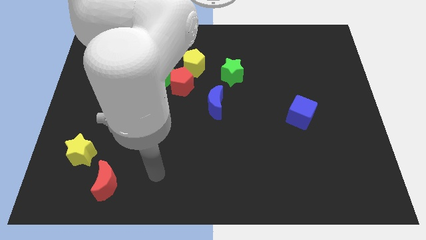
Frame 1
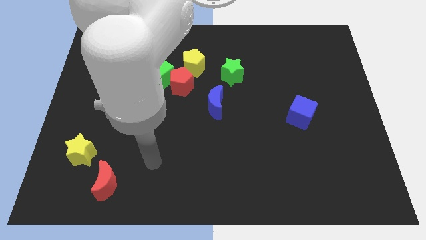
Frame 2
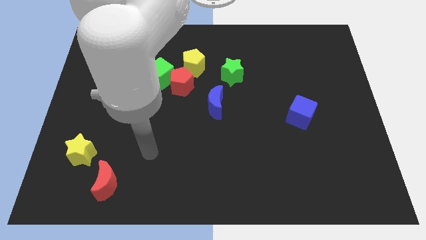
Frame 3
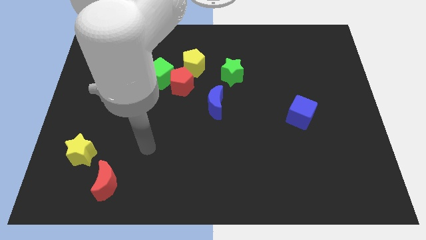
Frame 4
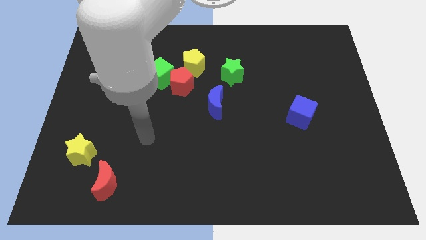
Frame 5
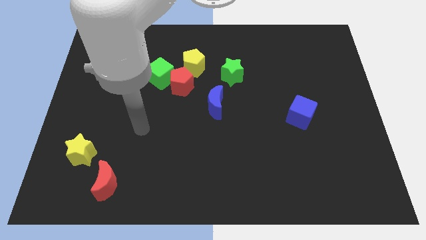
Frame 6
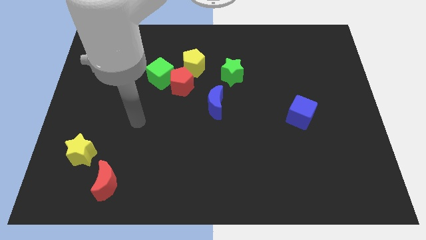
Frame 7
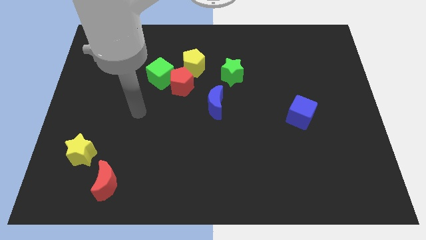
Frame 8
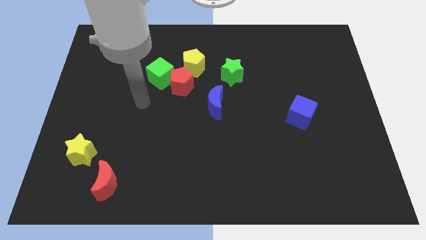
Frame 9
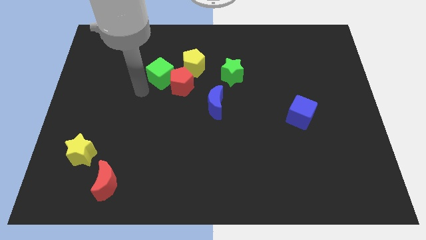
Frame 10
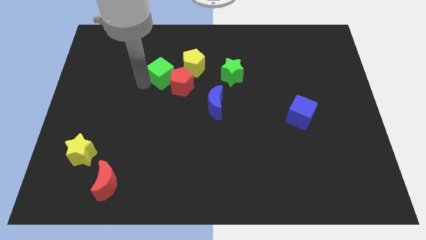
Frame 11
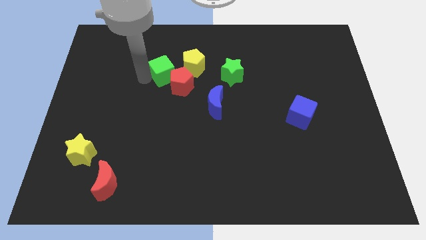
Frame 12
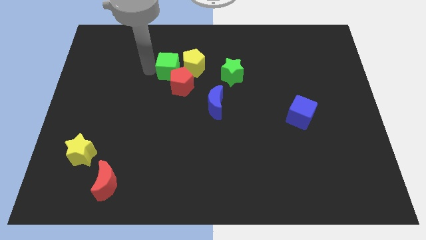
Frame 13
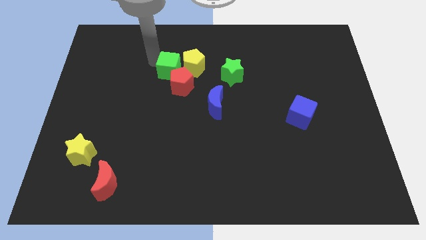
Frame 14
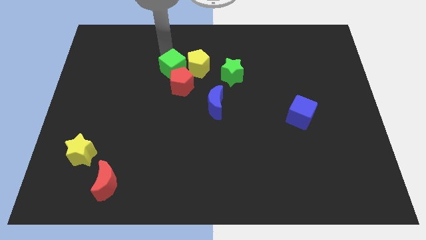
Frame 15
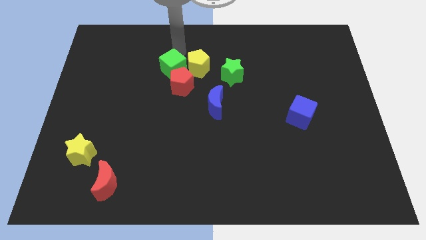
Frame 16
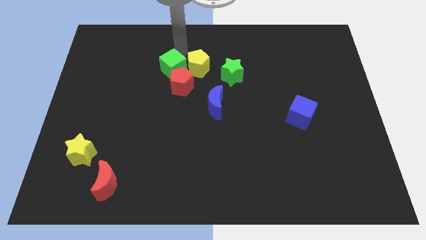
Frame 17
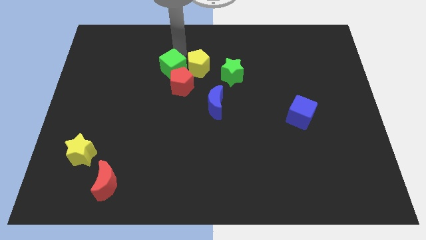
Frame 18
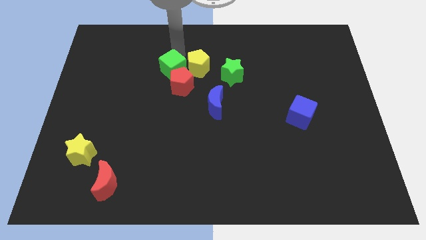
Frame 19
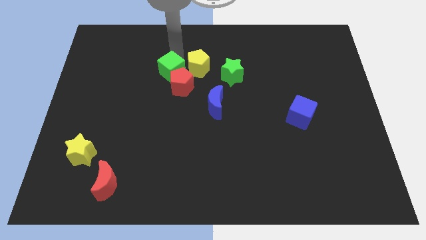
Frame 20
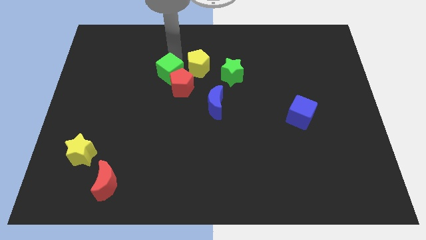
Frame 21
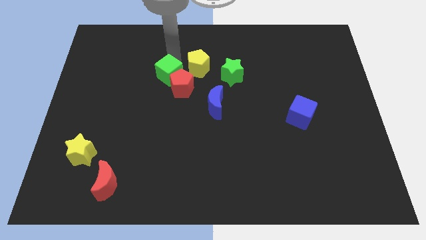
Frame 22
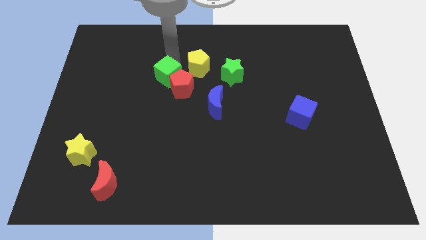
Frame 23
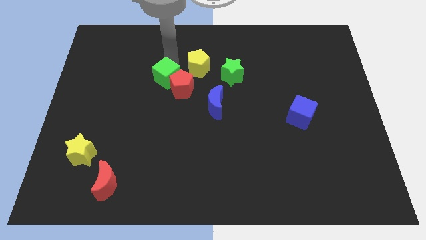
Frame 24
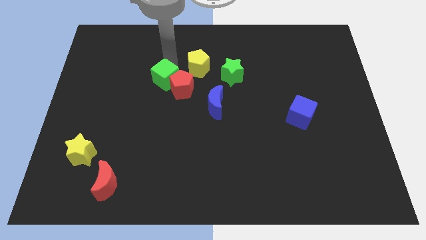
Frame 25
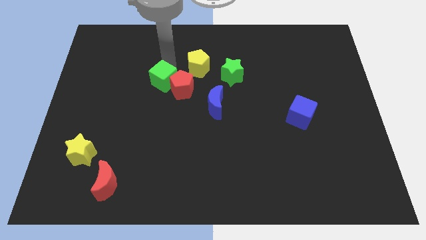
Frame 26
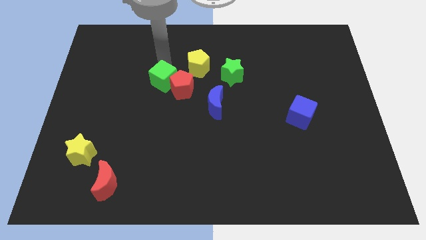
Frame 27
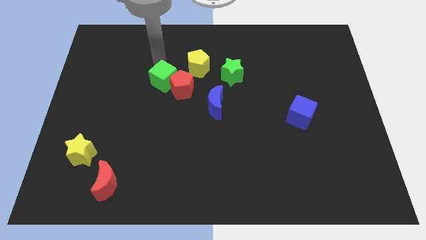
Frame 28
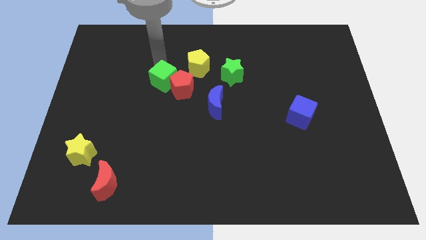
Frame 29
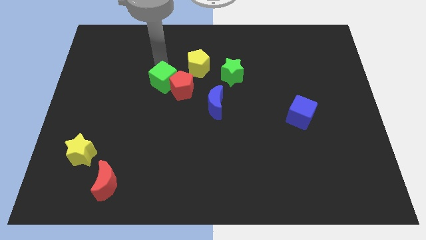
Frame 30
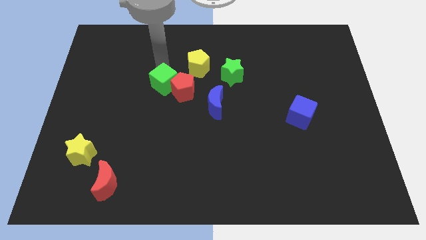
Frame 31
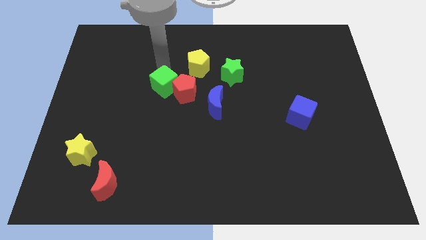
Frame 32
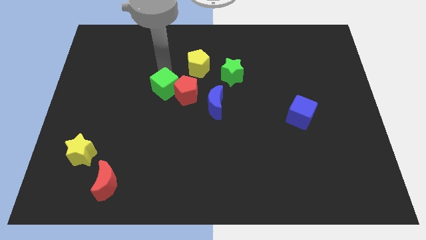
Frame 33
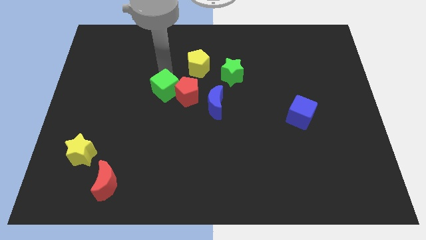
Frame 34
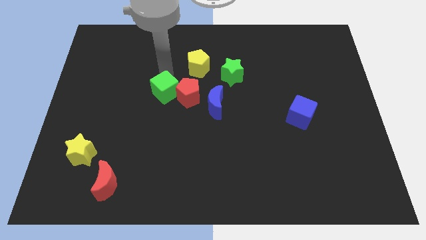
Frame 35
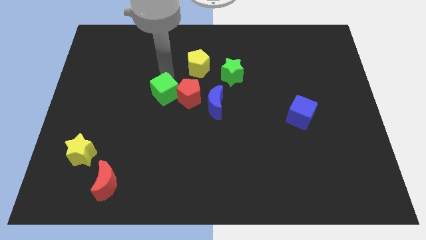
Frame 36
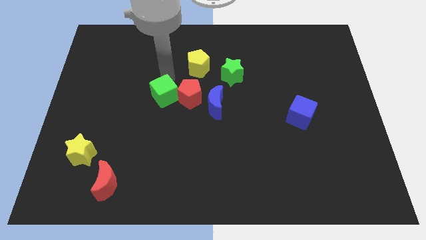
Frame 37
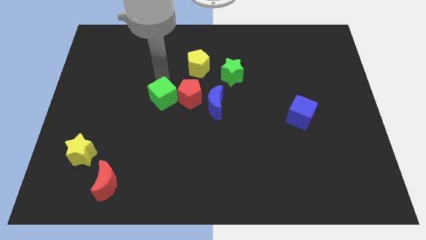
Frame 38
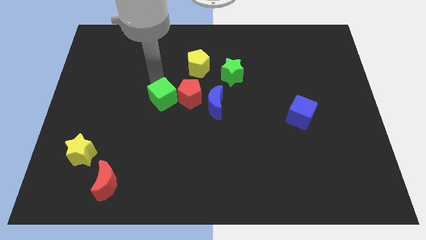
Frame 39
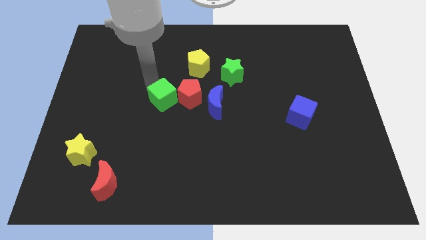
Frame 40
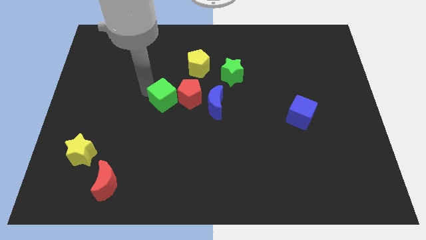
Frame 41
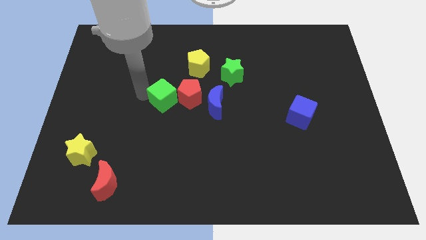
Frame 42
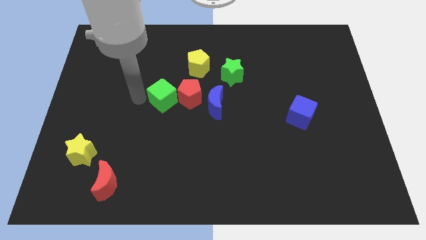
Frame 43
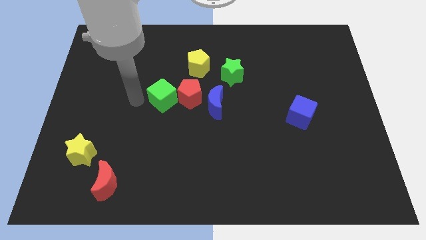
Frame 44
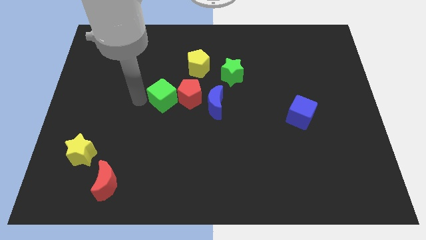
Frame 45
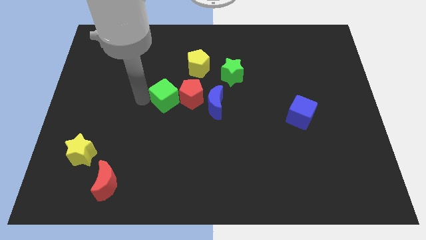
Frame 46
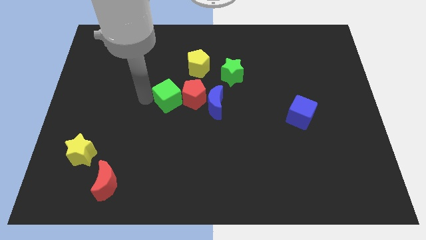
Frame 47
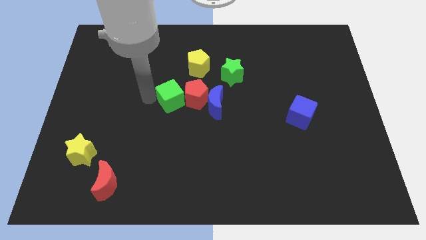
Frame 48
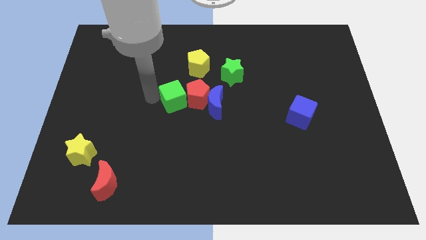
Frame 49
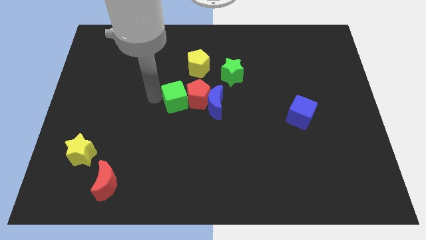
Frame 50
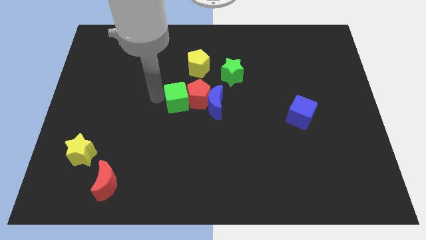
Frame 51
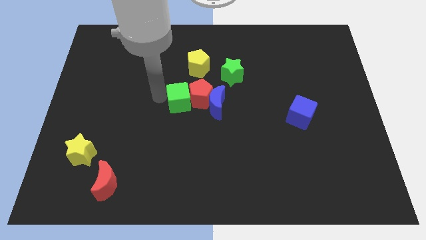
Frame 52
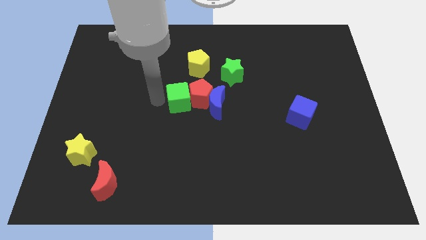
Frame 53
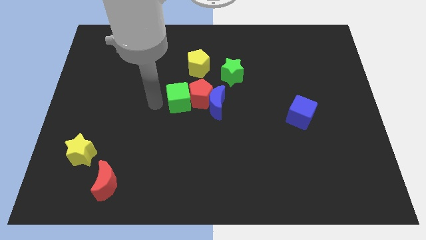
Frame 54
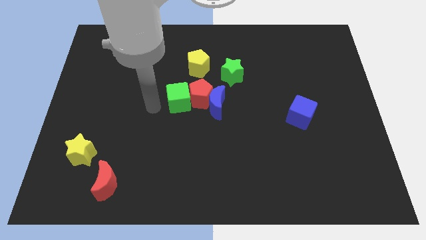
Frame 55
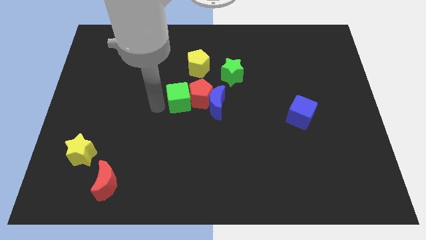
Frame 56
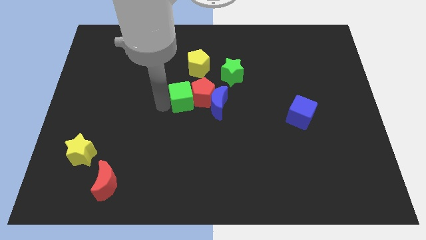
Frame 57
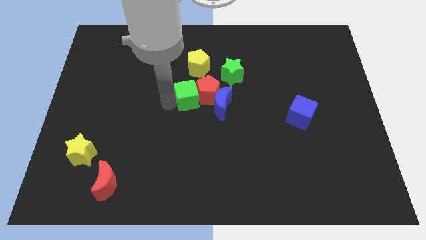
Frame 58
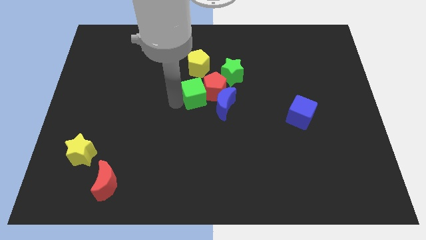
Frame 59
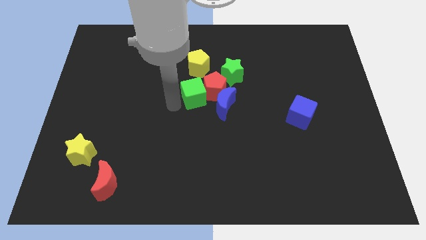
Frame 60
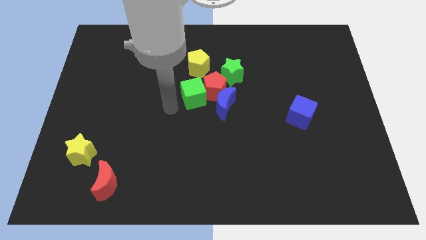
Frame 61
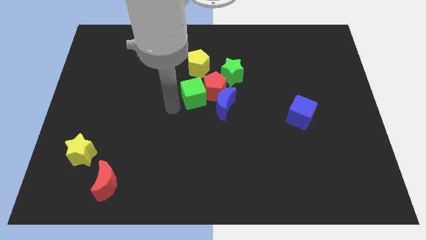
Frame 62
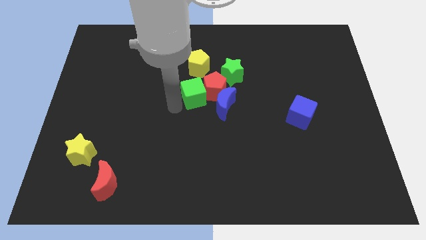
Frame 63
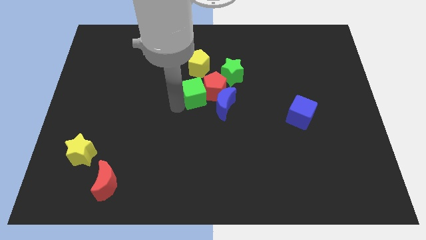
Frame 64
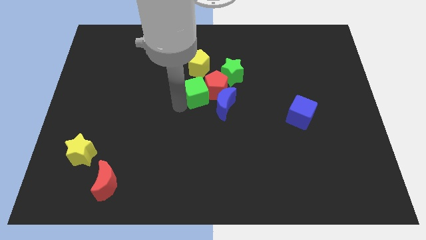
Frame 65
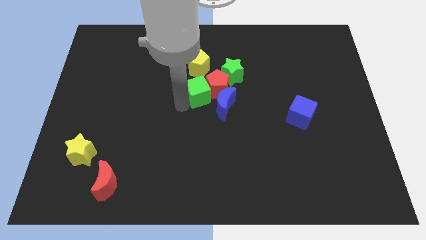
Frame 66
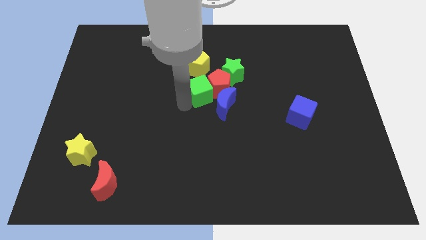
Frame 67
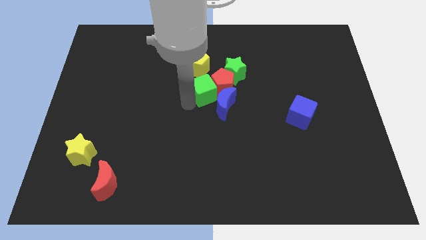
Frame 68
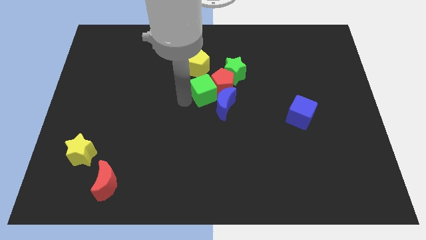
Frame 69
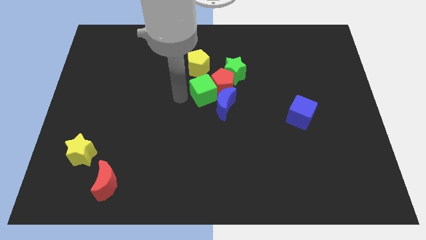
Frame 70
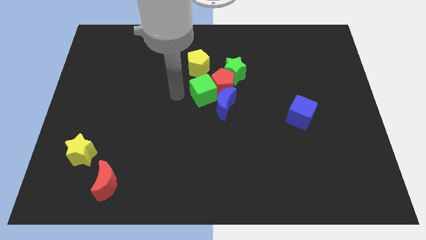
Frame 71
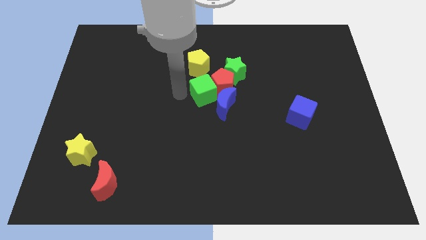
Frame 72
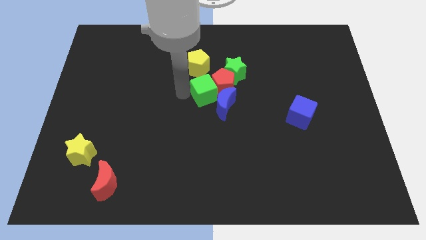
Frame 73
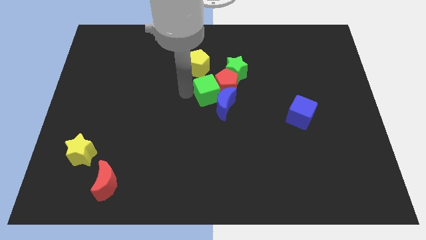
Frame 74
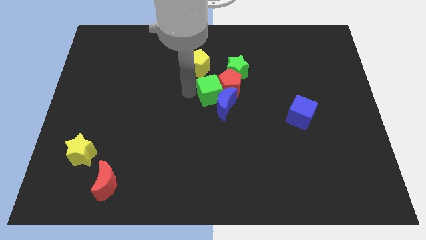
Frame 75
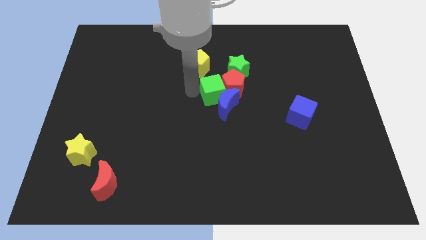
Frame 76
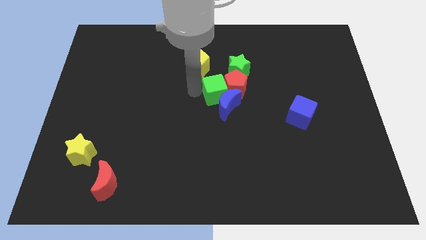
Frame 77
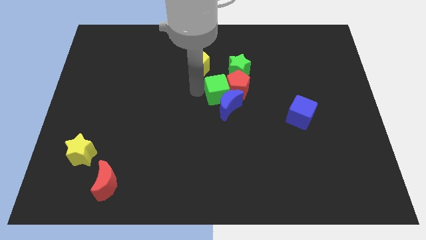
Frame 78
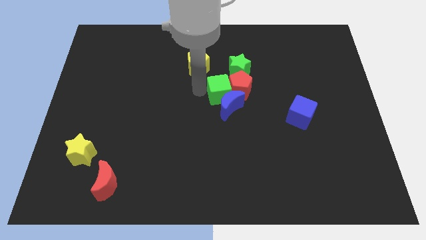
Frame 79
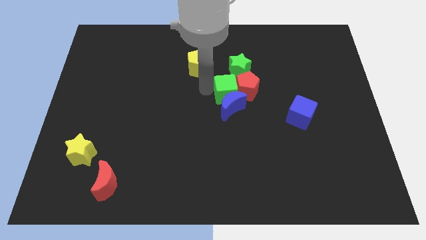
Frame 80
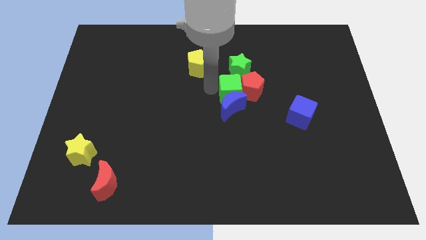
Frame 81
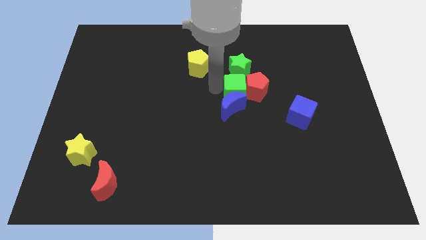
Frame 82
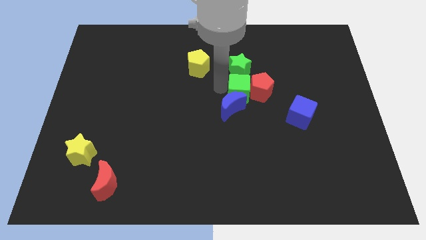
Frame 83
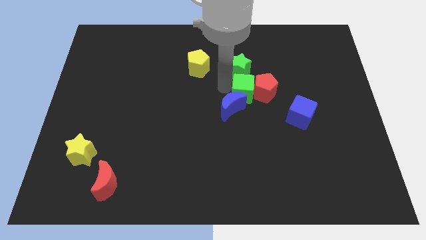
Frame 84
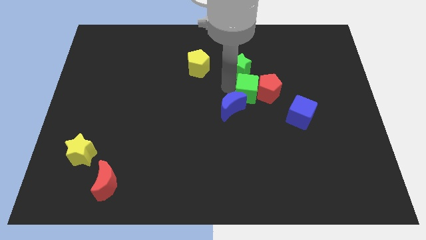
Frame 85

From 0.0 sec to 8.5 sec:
put the green cube right of the blue moon
